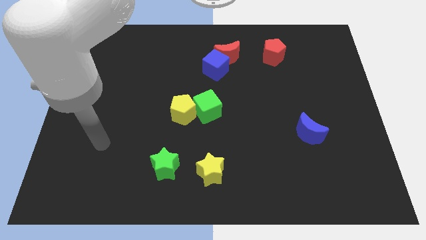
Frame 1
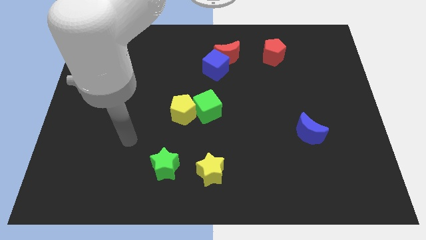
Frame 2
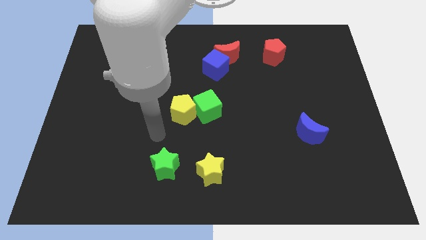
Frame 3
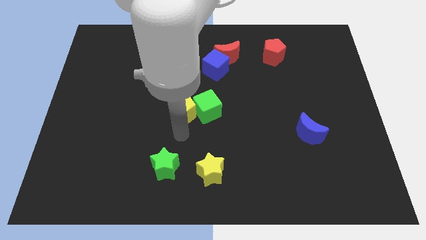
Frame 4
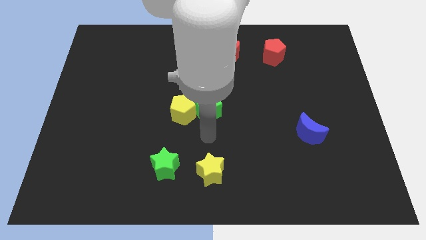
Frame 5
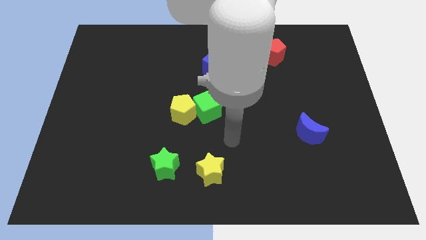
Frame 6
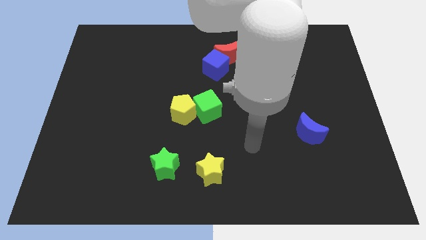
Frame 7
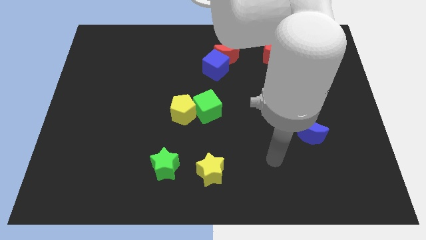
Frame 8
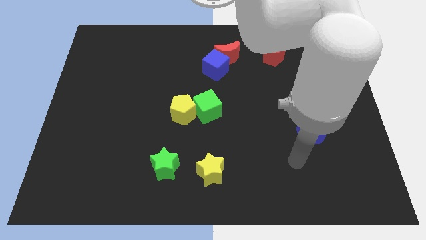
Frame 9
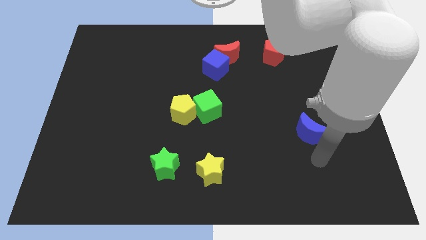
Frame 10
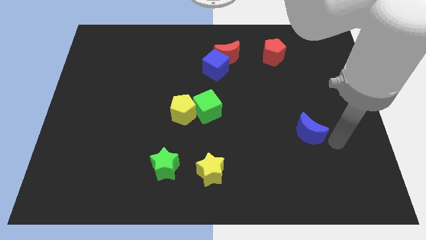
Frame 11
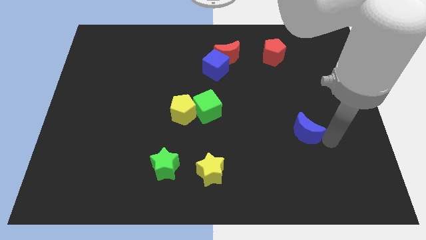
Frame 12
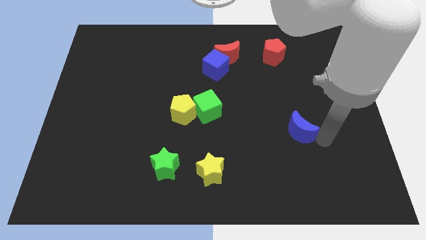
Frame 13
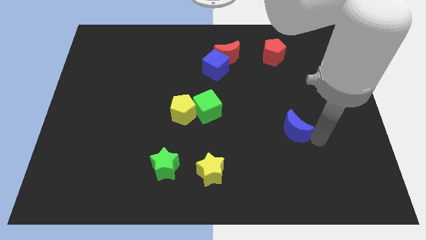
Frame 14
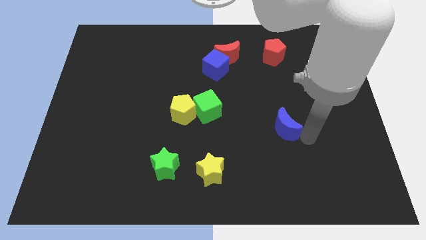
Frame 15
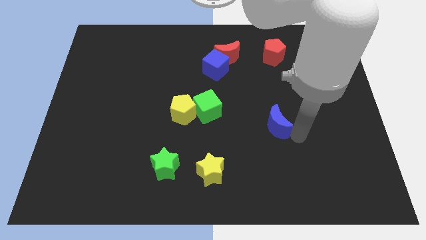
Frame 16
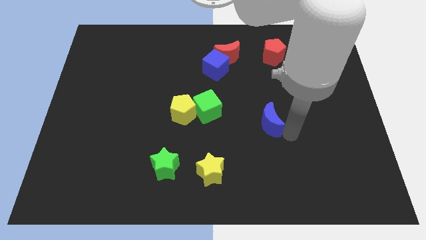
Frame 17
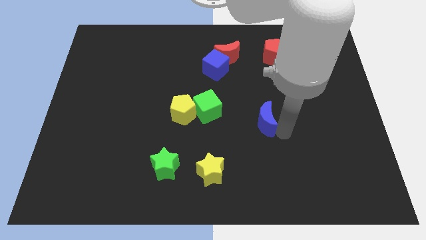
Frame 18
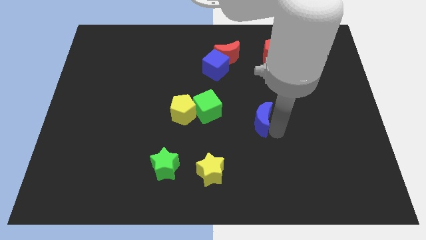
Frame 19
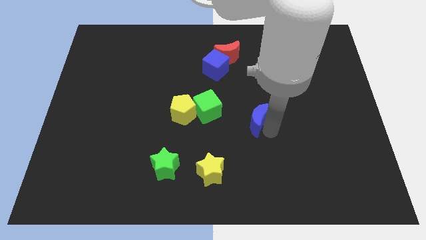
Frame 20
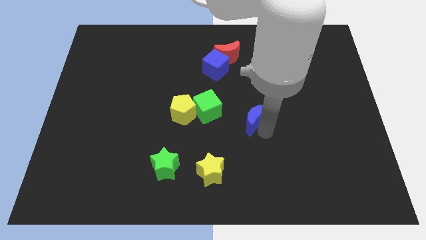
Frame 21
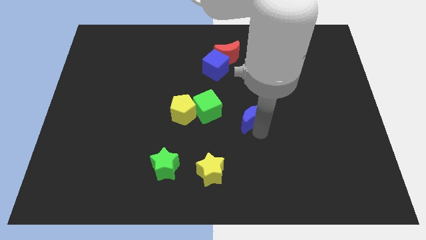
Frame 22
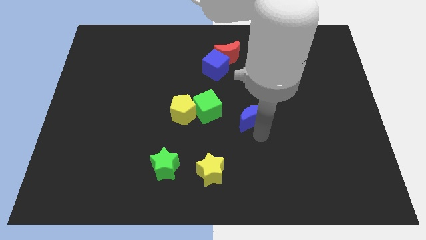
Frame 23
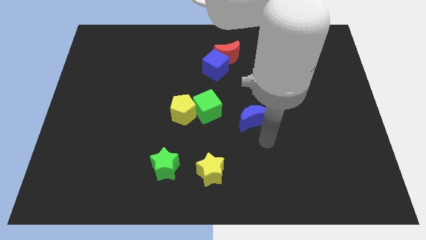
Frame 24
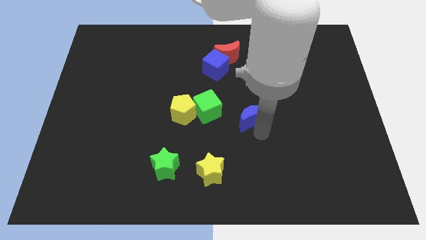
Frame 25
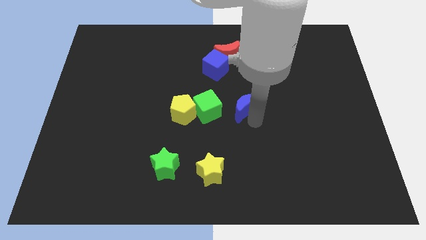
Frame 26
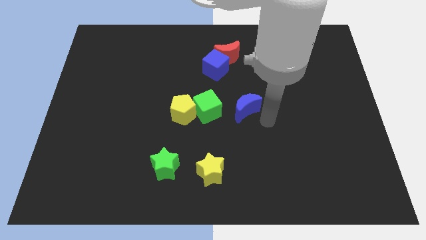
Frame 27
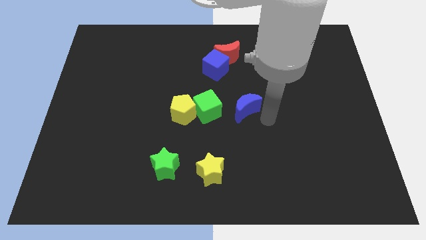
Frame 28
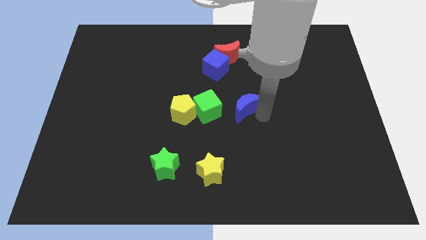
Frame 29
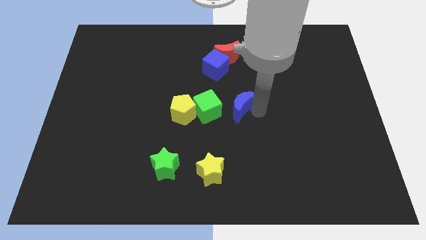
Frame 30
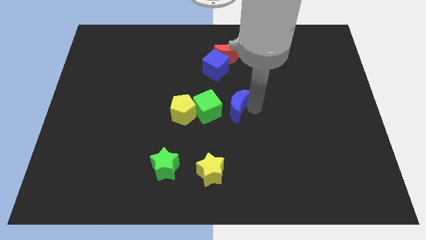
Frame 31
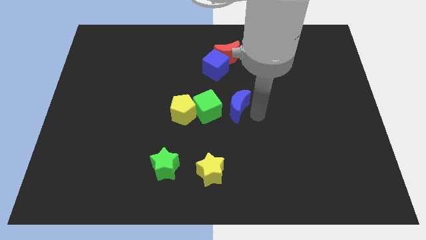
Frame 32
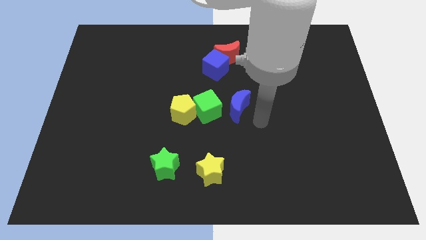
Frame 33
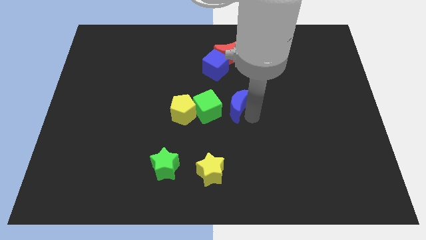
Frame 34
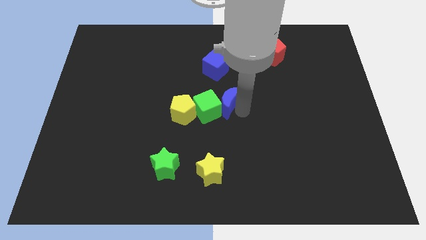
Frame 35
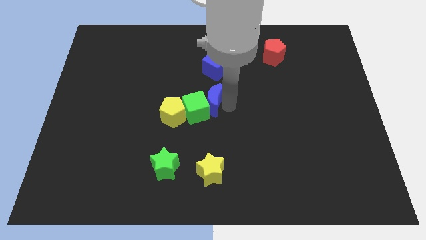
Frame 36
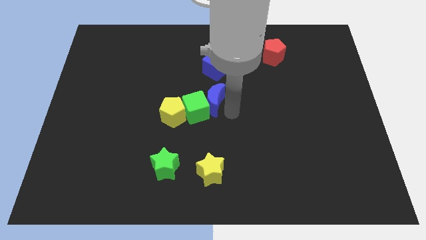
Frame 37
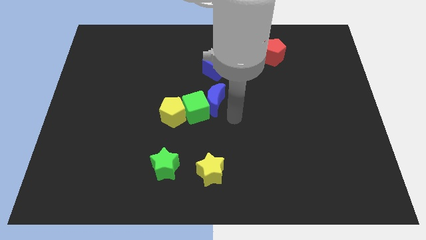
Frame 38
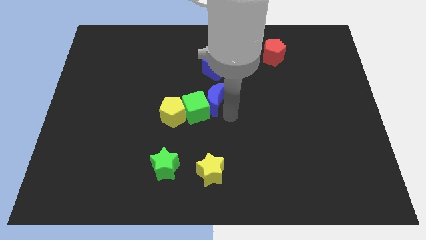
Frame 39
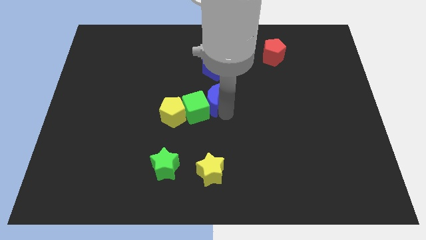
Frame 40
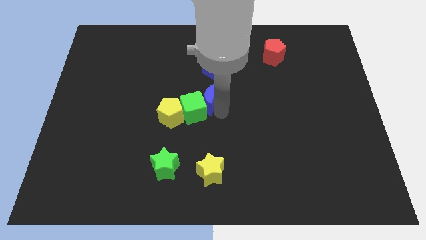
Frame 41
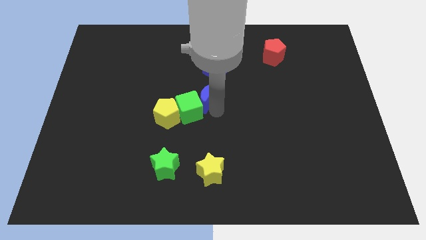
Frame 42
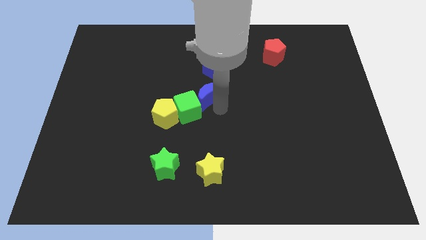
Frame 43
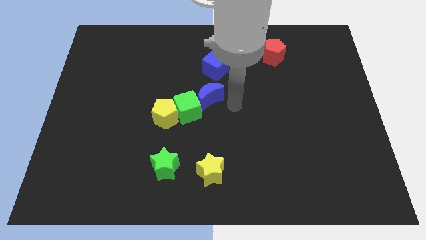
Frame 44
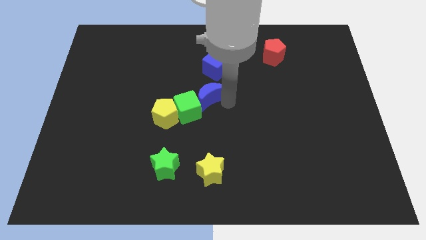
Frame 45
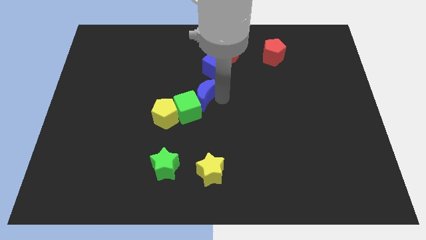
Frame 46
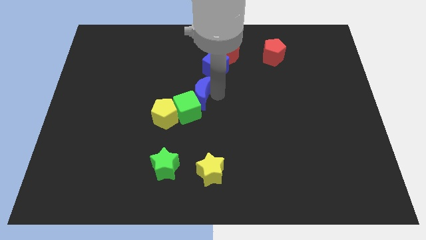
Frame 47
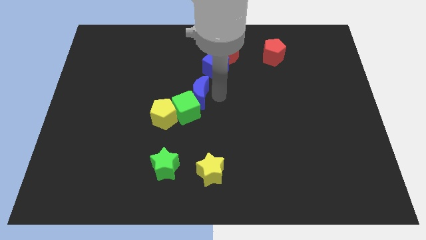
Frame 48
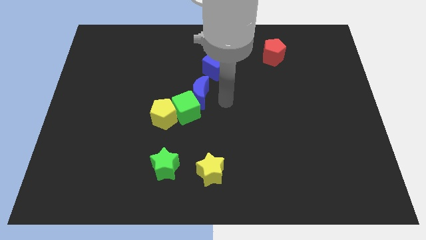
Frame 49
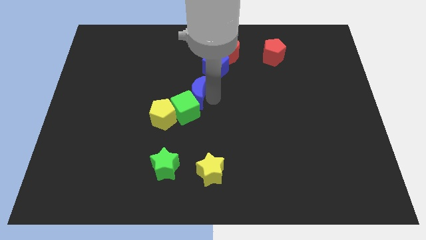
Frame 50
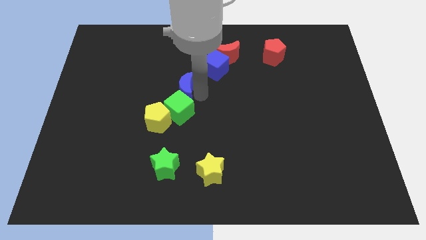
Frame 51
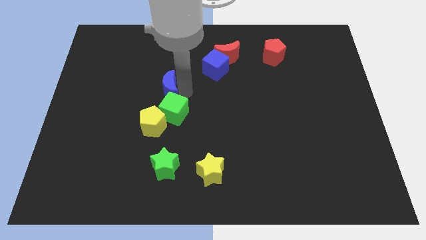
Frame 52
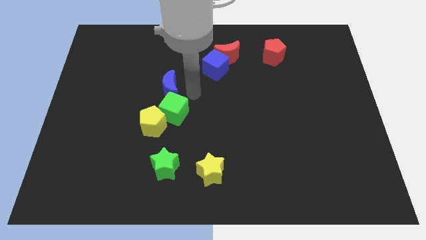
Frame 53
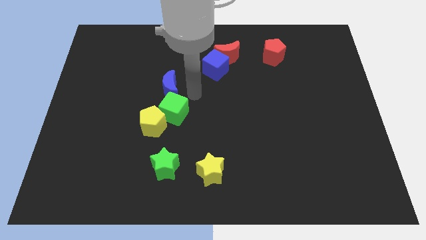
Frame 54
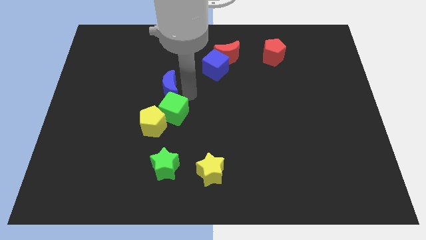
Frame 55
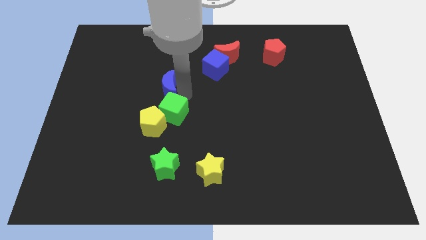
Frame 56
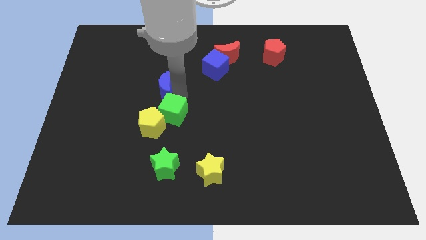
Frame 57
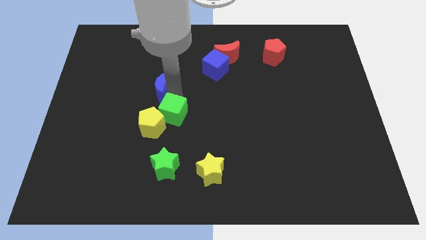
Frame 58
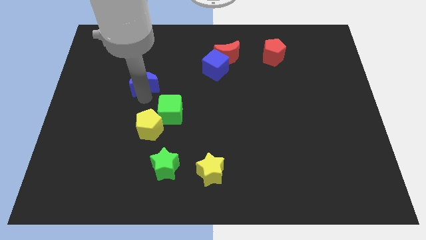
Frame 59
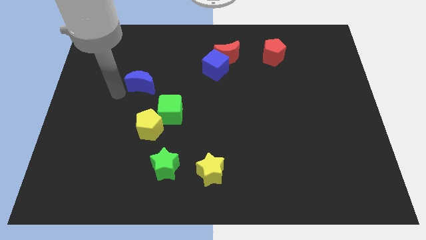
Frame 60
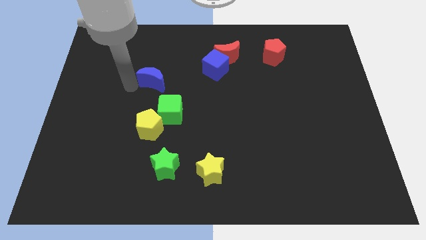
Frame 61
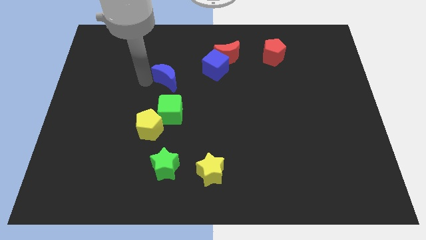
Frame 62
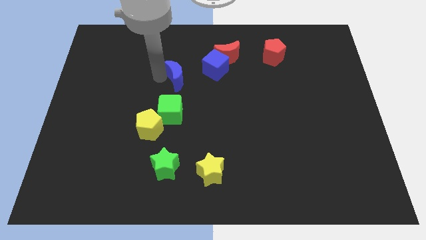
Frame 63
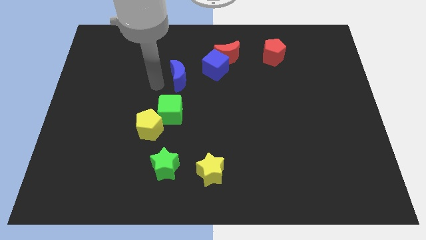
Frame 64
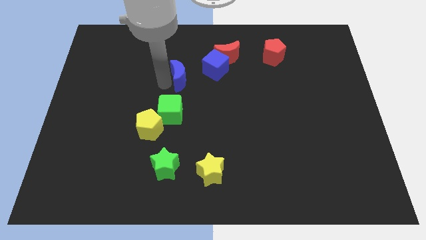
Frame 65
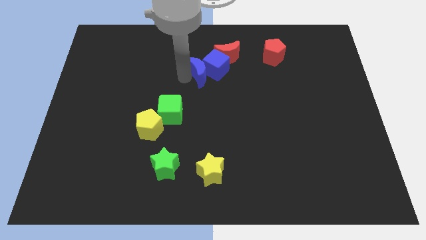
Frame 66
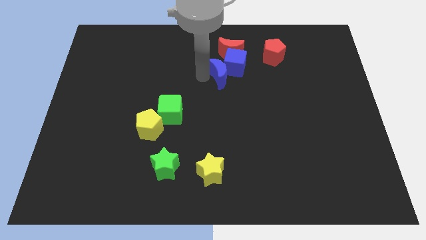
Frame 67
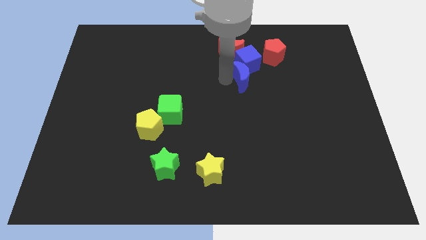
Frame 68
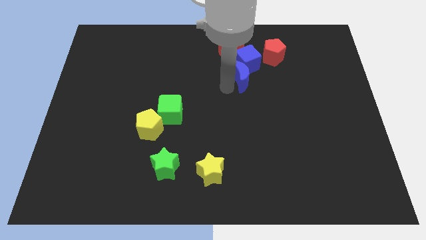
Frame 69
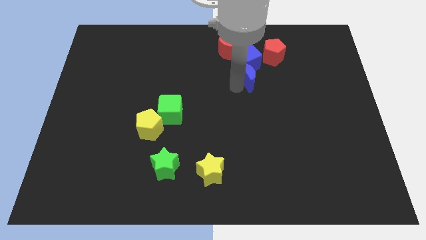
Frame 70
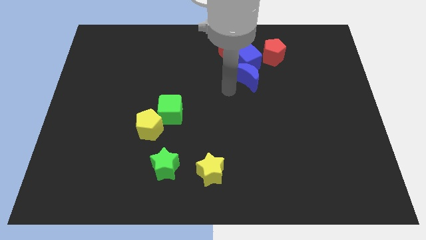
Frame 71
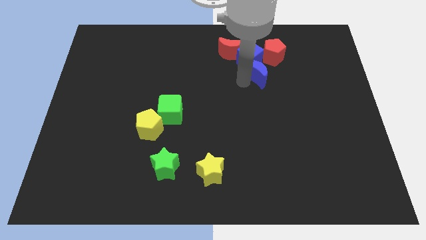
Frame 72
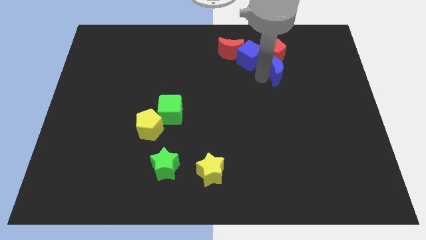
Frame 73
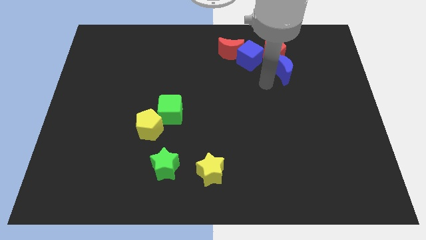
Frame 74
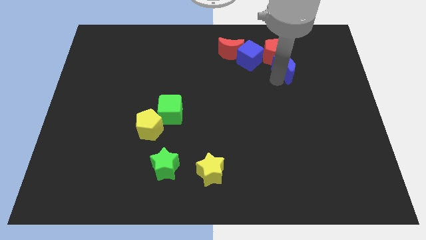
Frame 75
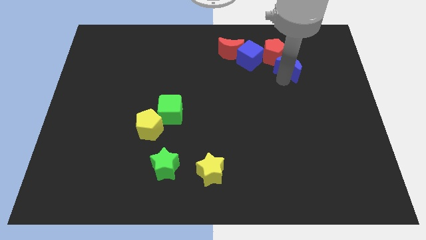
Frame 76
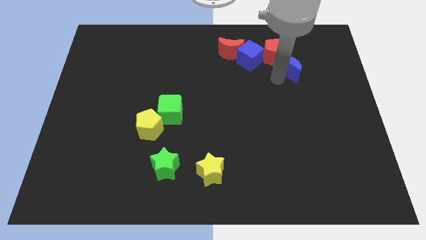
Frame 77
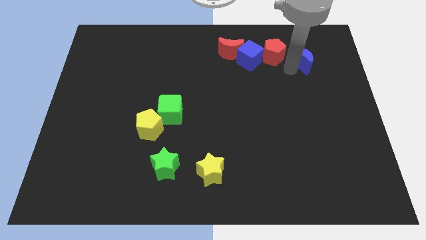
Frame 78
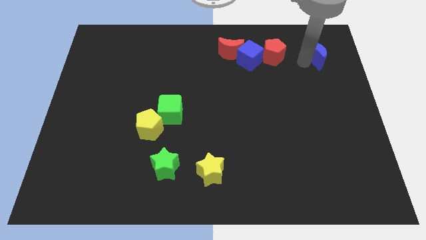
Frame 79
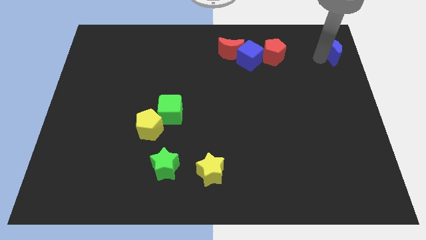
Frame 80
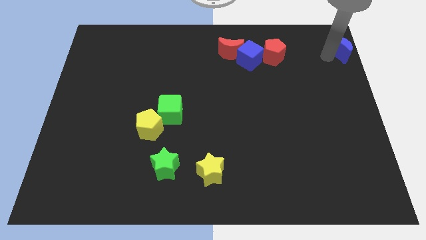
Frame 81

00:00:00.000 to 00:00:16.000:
slide the blue moon to the upper right corner

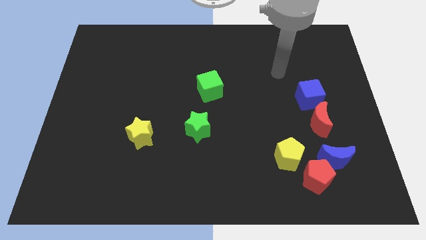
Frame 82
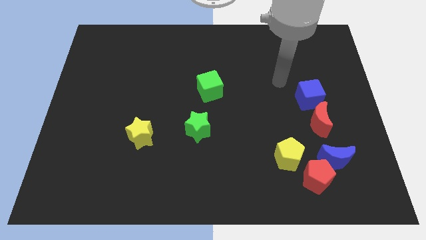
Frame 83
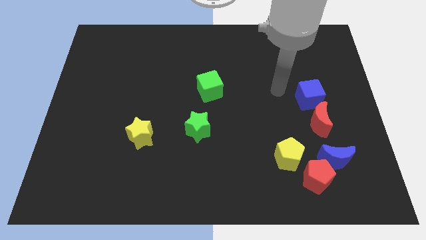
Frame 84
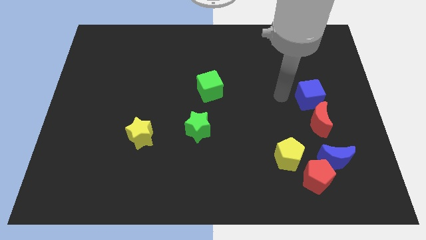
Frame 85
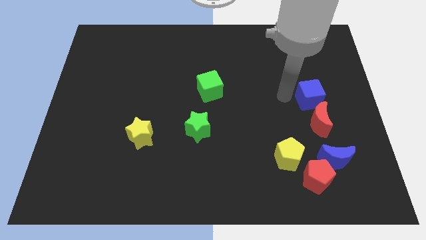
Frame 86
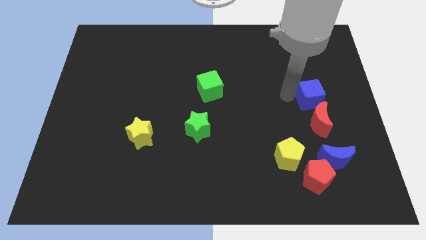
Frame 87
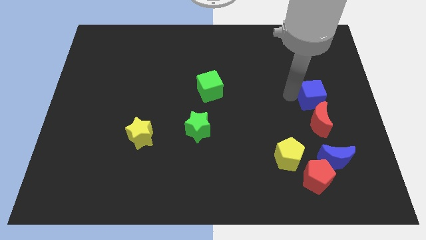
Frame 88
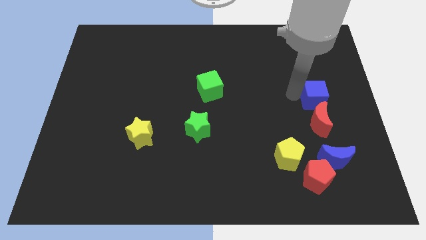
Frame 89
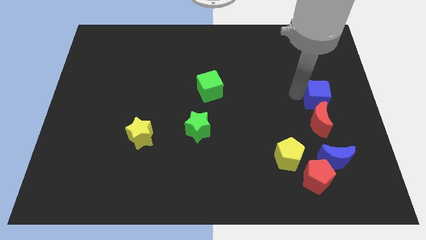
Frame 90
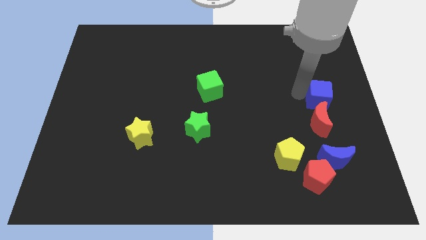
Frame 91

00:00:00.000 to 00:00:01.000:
move the blue cube to the right side of the board
